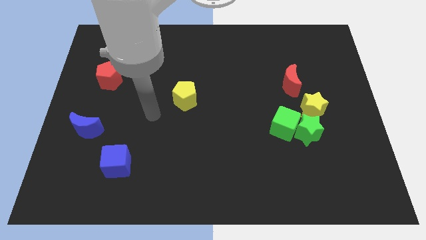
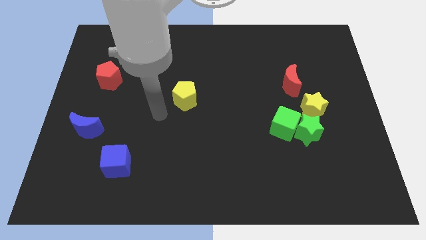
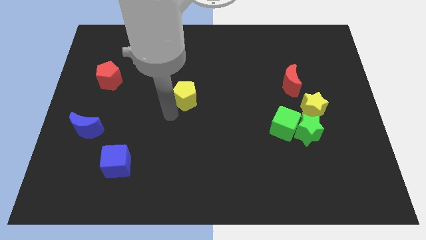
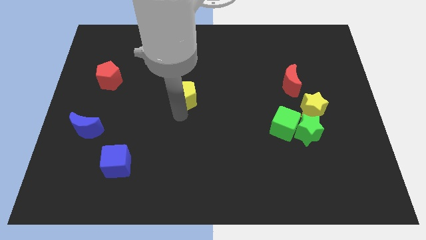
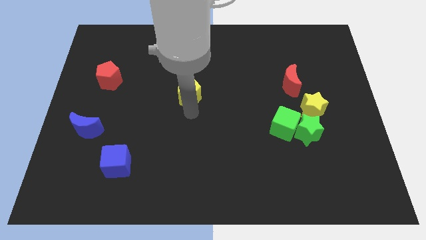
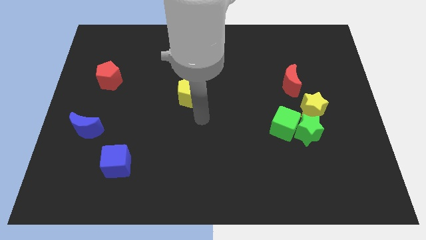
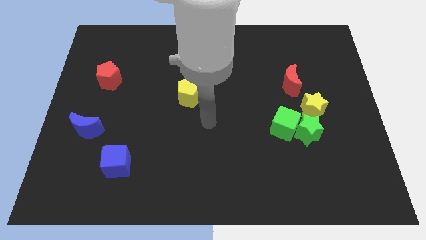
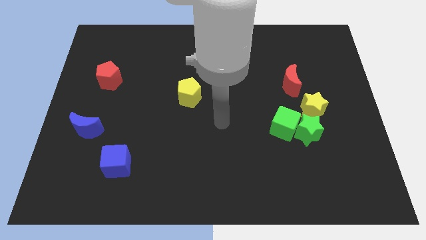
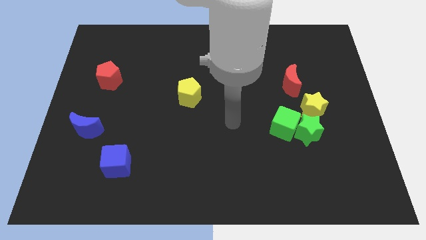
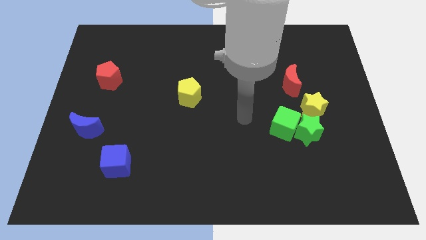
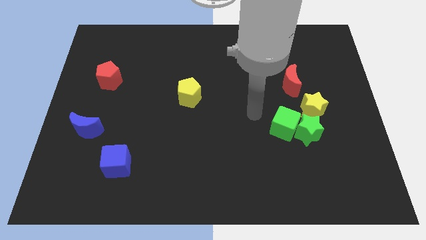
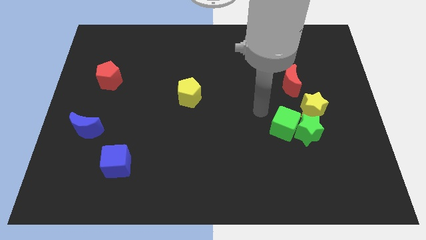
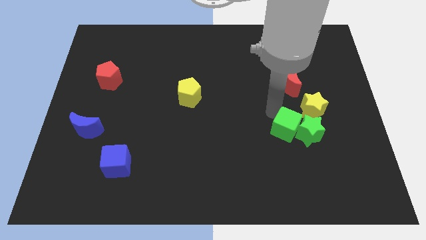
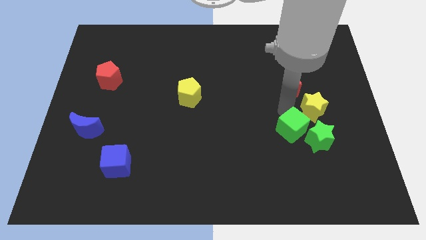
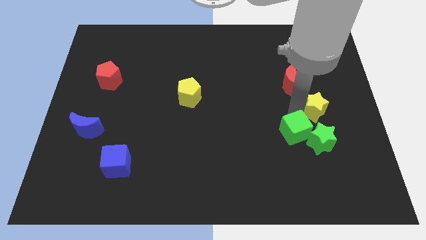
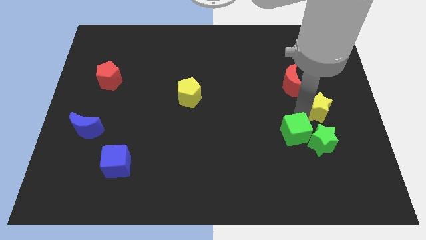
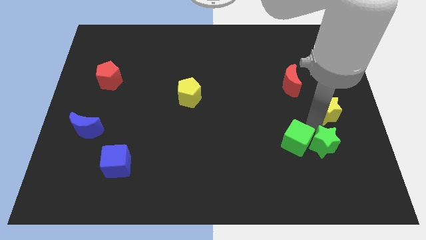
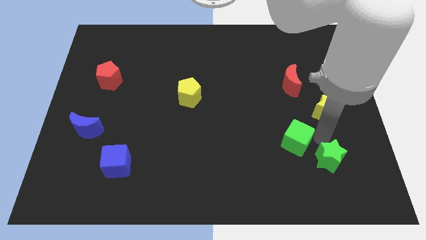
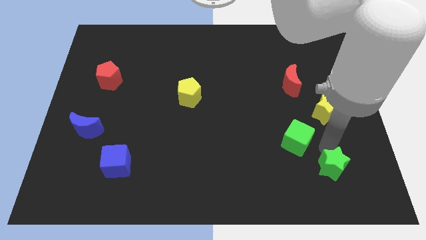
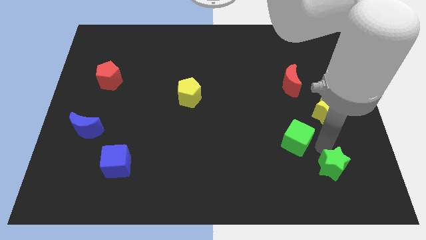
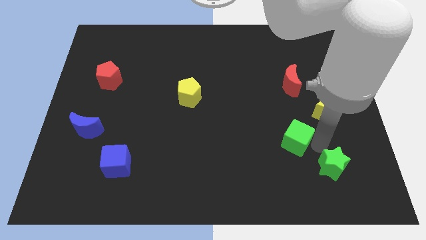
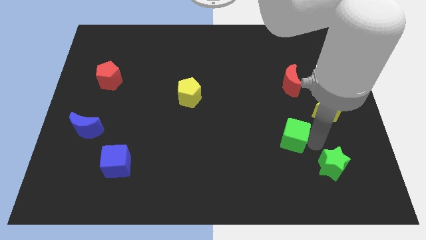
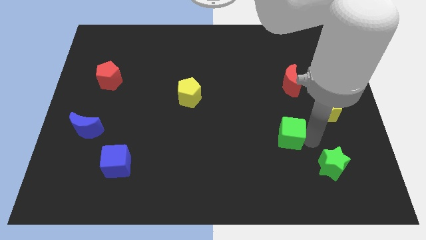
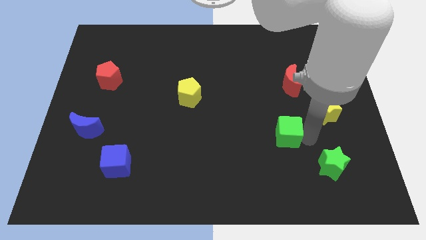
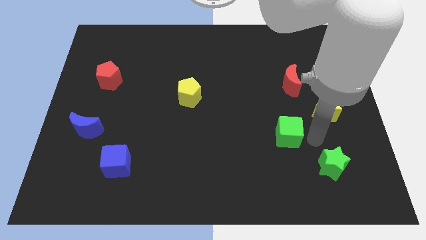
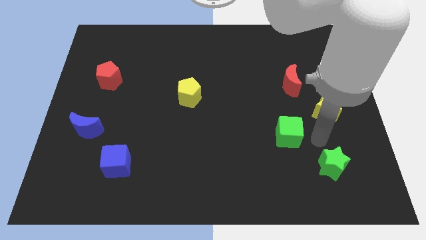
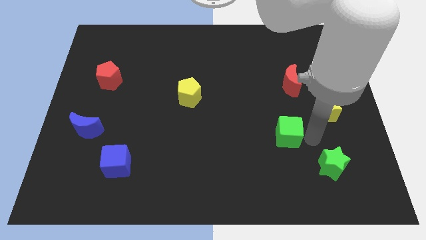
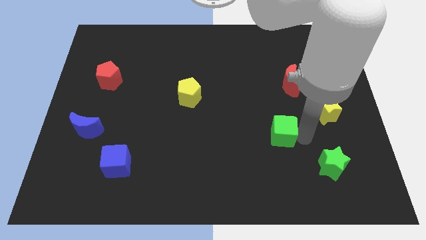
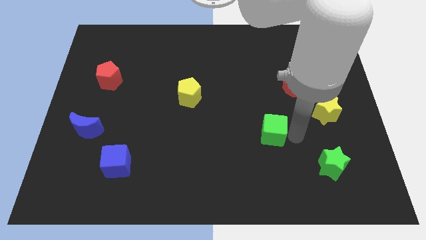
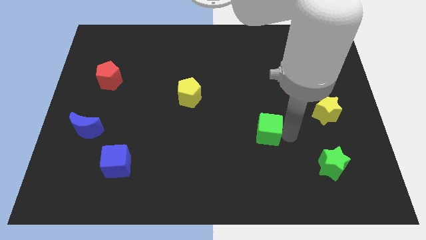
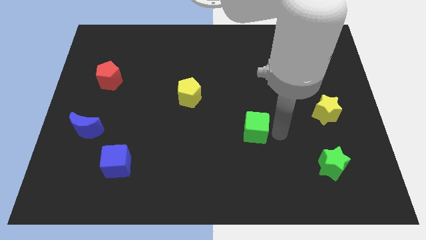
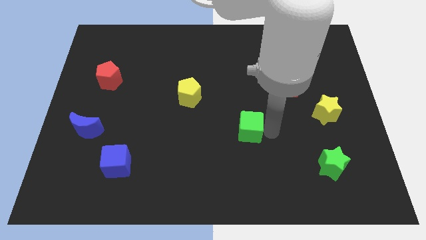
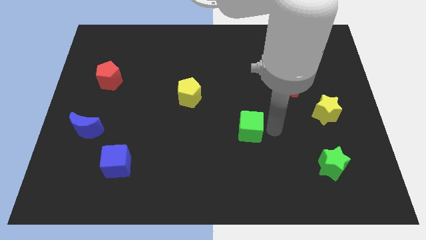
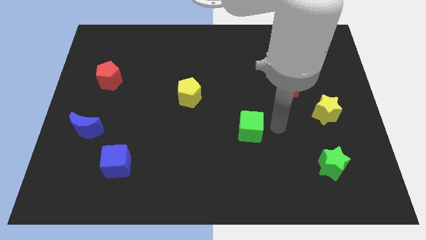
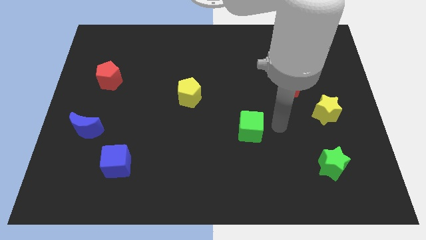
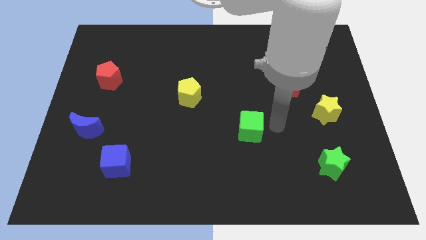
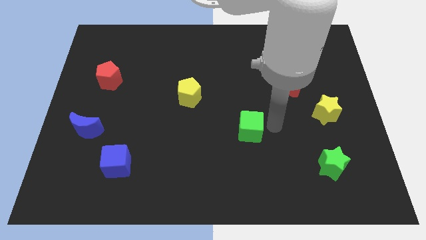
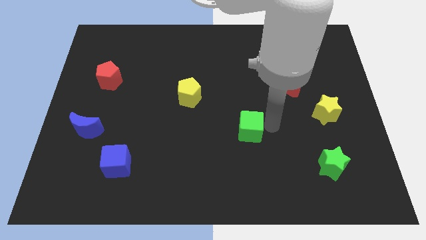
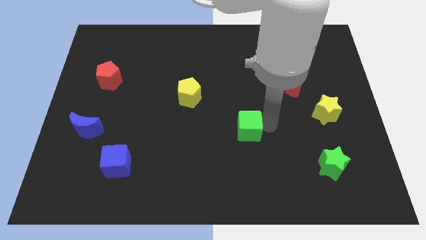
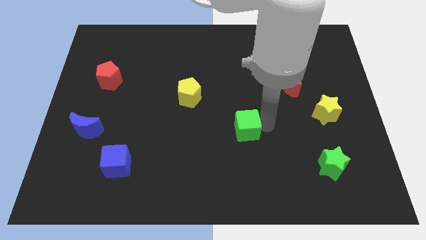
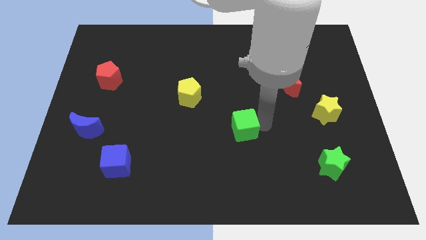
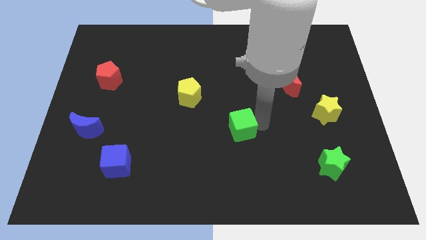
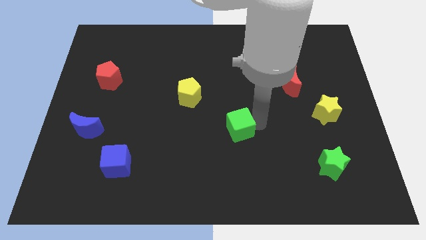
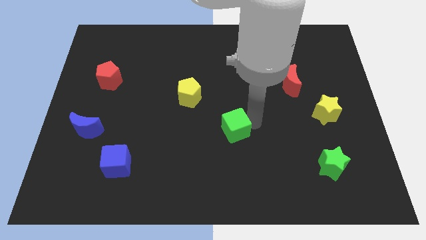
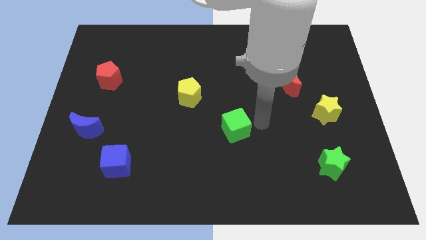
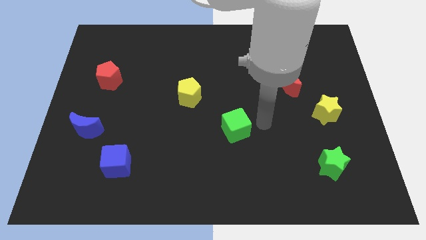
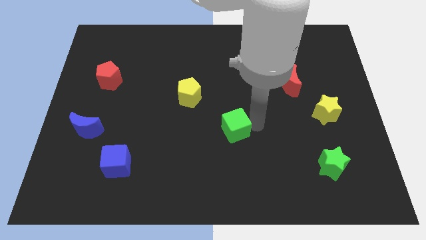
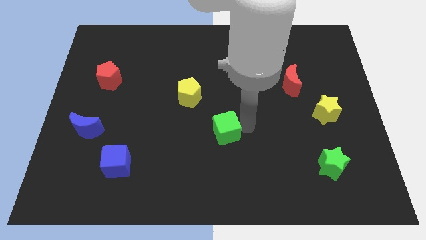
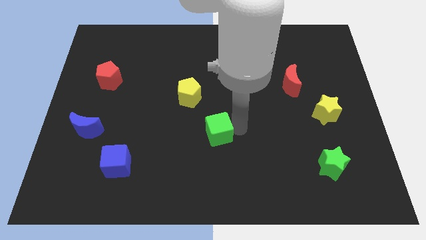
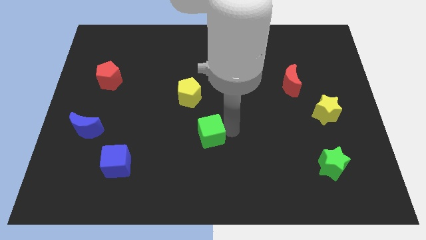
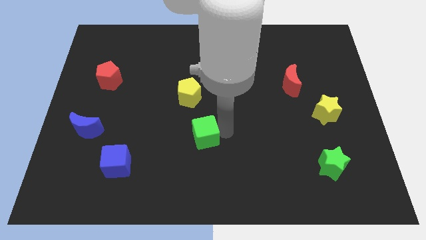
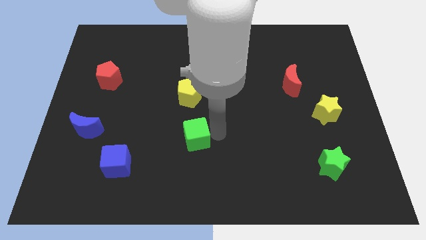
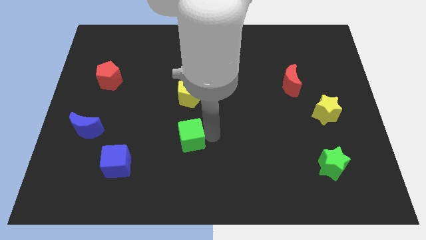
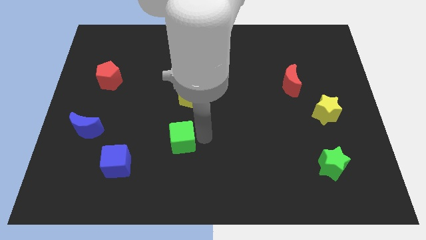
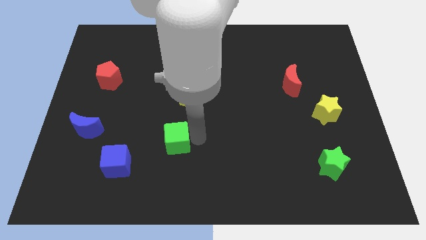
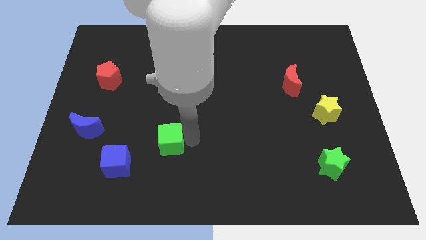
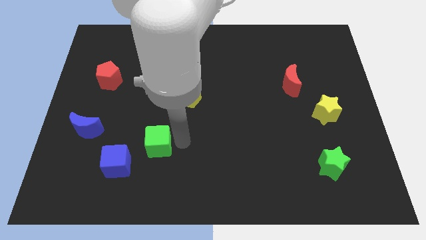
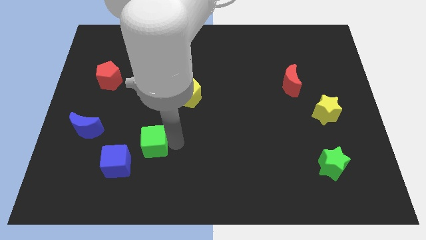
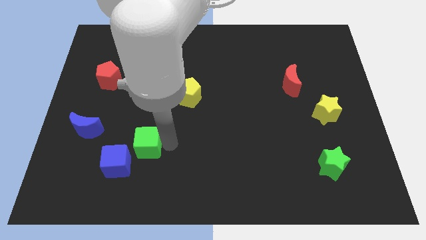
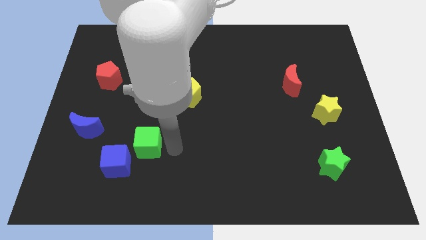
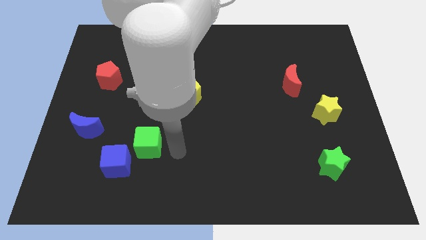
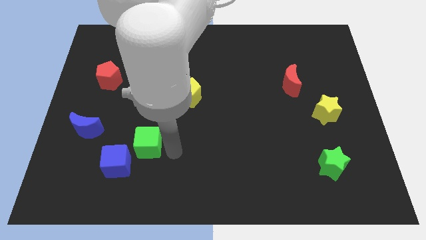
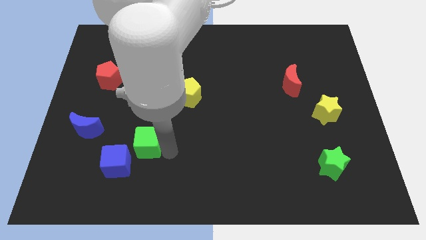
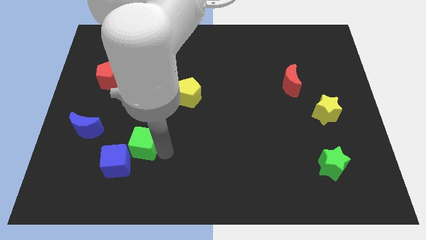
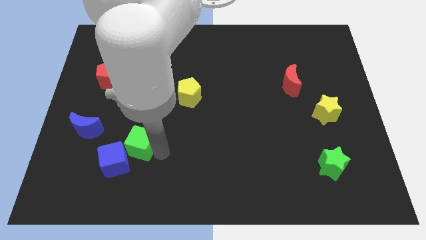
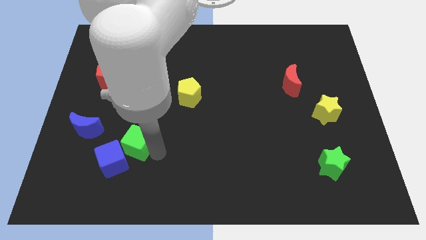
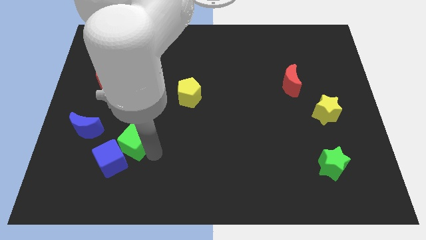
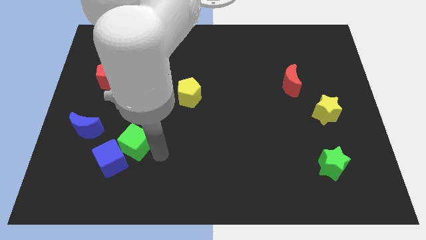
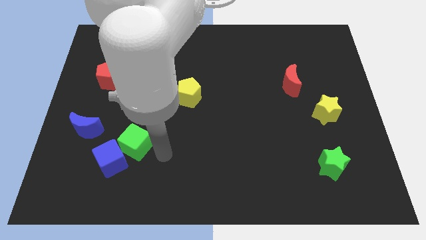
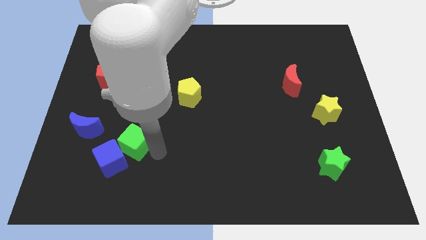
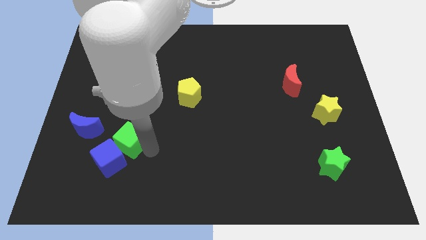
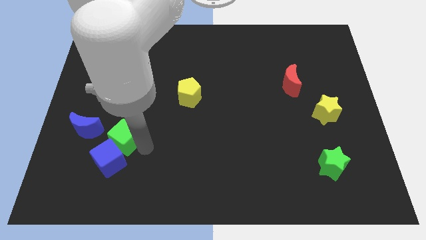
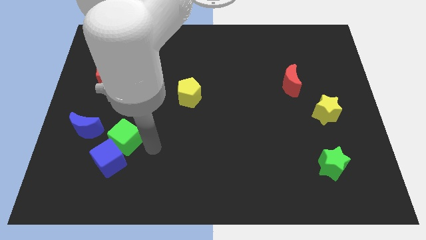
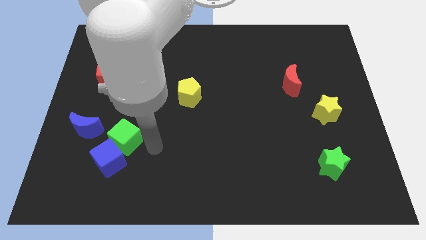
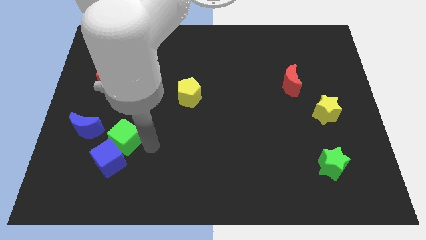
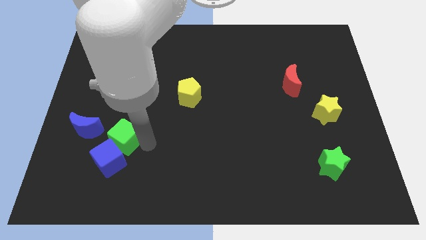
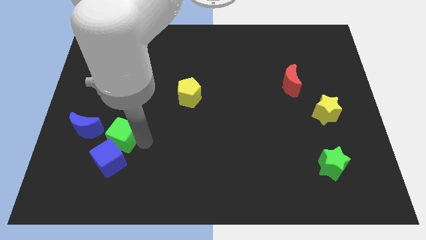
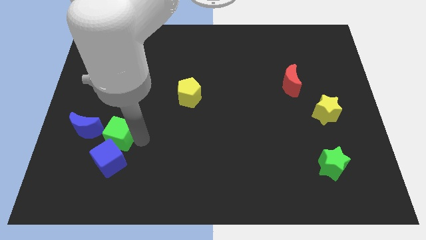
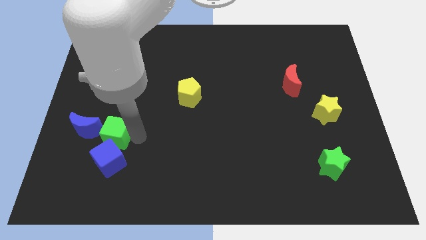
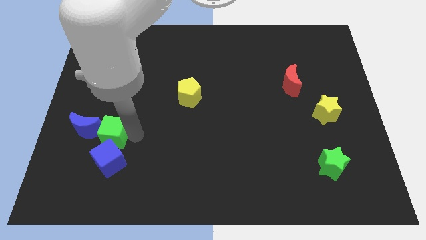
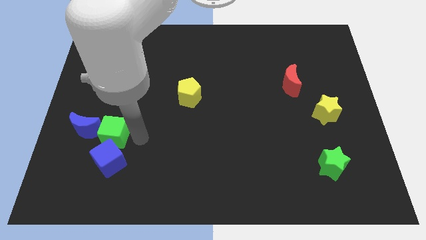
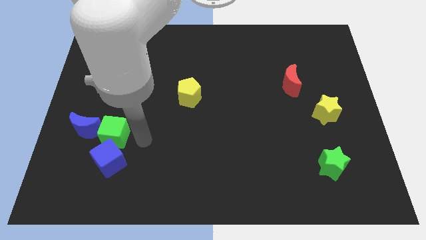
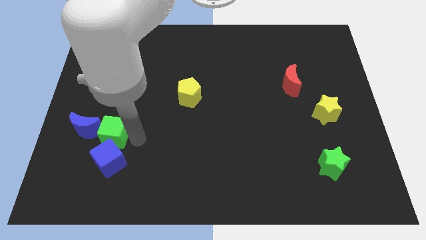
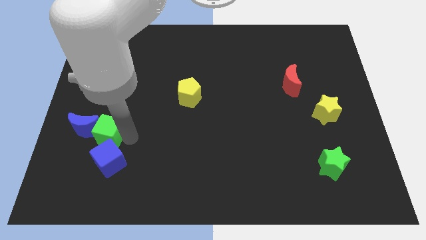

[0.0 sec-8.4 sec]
slide the green cube to the blue moon
